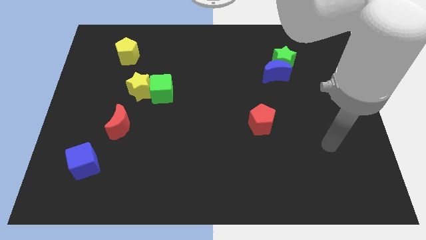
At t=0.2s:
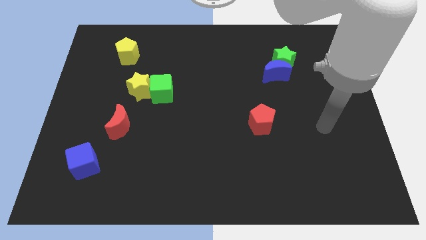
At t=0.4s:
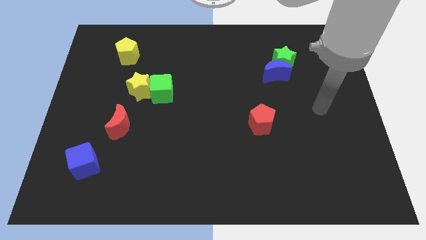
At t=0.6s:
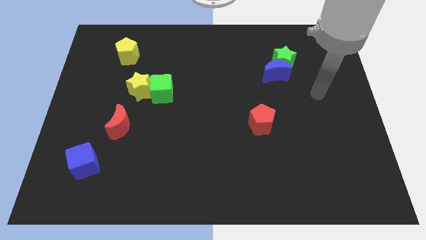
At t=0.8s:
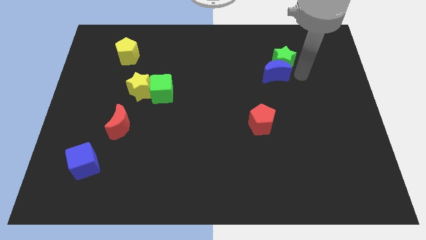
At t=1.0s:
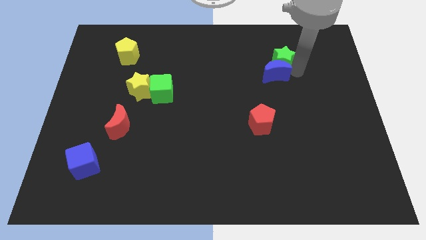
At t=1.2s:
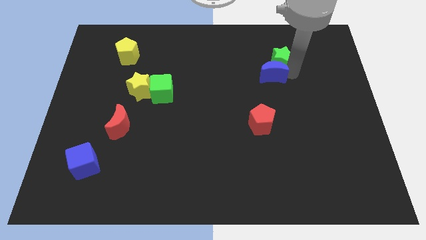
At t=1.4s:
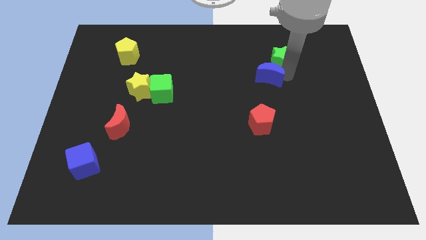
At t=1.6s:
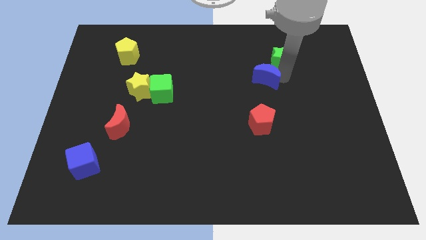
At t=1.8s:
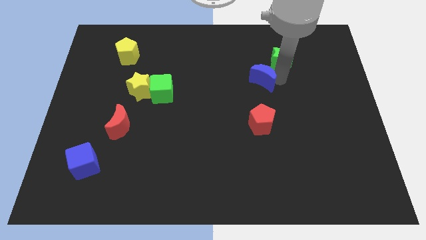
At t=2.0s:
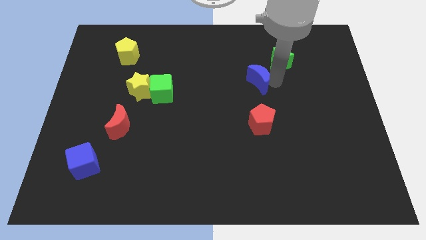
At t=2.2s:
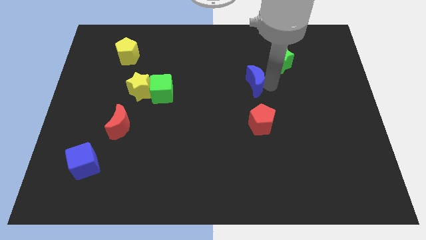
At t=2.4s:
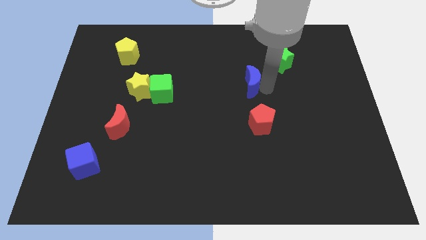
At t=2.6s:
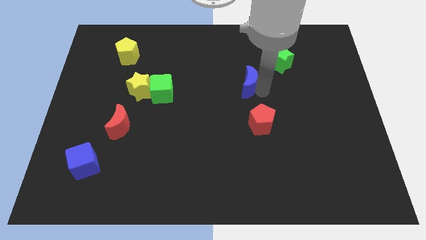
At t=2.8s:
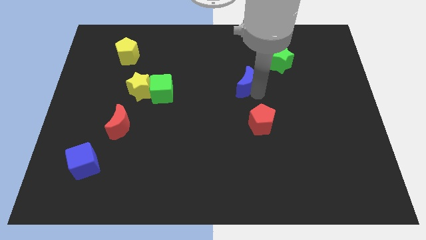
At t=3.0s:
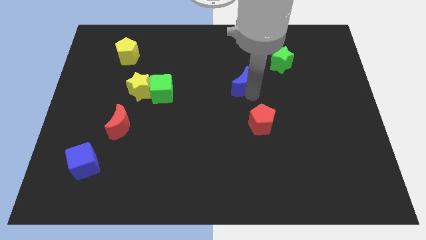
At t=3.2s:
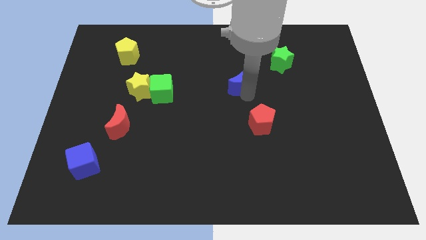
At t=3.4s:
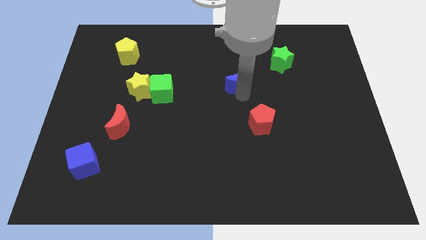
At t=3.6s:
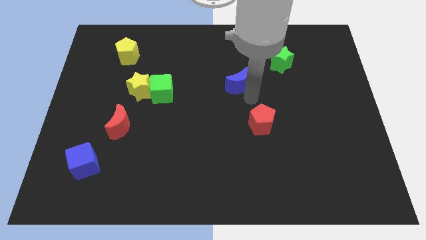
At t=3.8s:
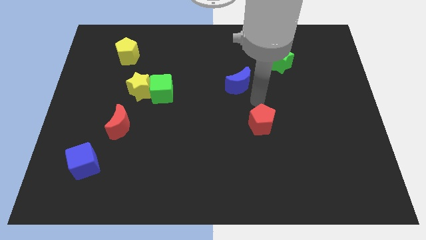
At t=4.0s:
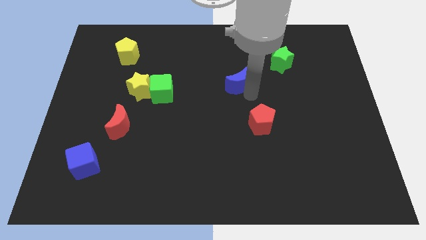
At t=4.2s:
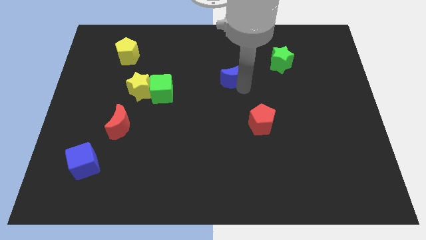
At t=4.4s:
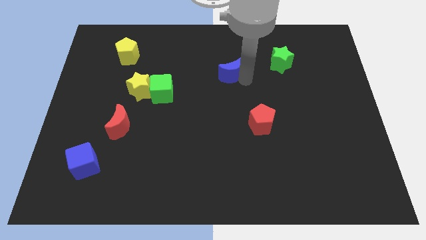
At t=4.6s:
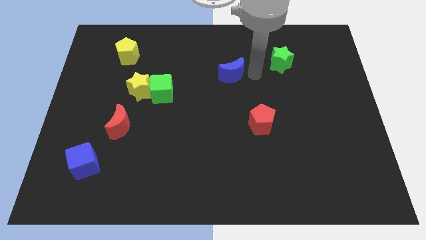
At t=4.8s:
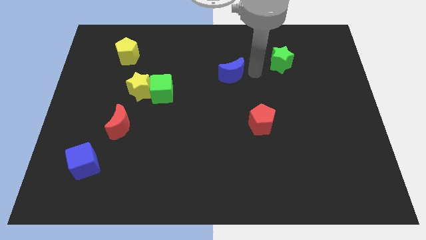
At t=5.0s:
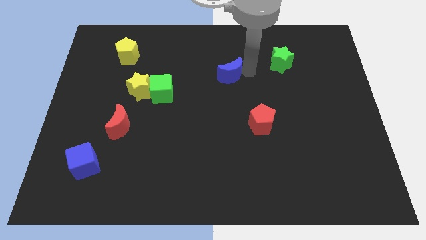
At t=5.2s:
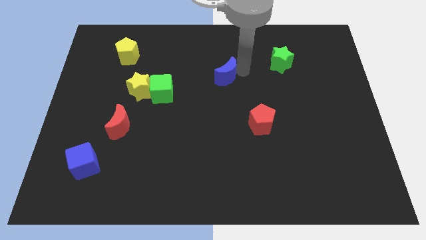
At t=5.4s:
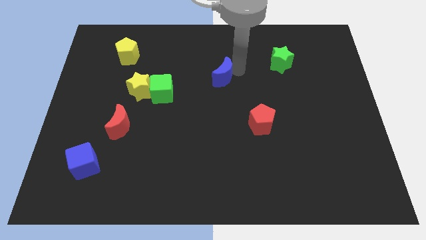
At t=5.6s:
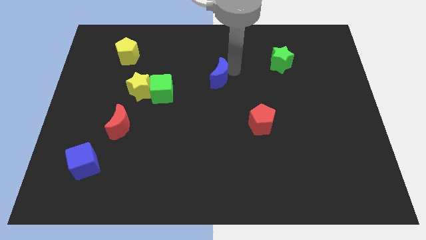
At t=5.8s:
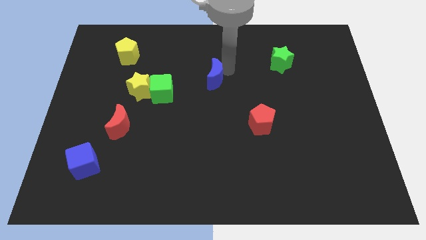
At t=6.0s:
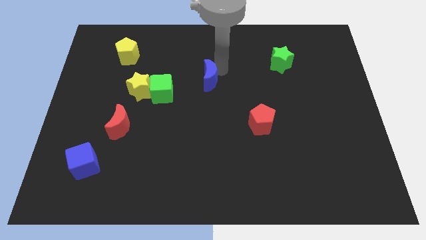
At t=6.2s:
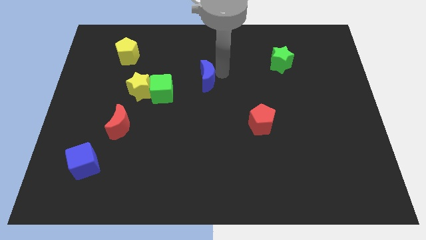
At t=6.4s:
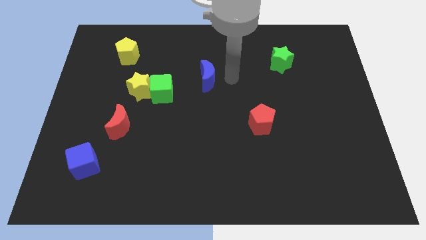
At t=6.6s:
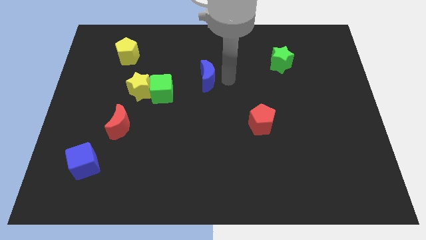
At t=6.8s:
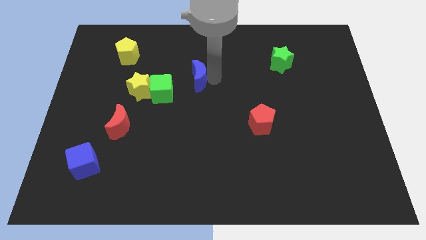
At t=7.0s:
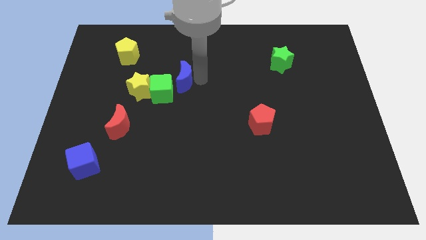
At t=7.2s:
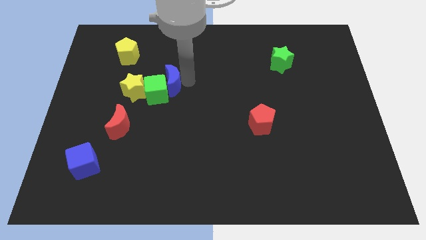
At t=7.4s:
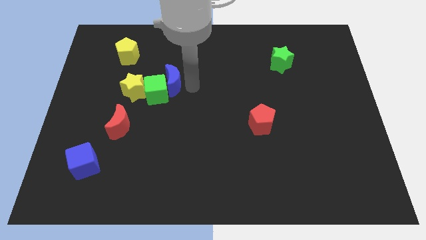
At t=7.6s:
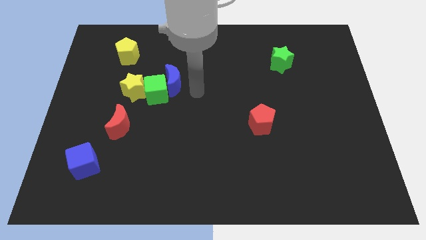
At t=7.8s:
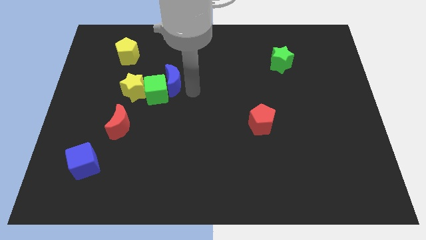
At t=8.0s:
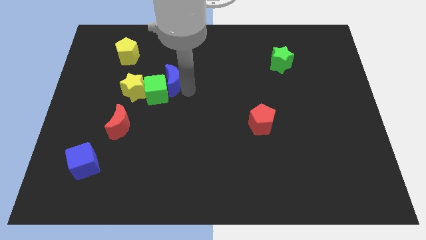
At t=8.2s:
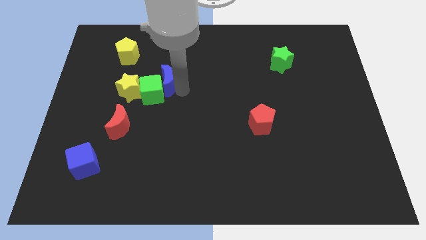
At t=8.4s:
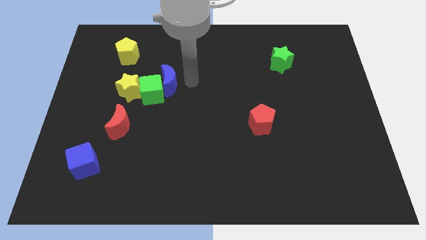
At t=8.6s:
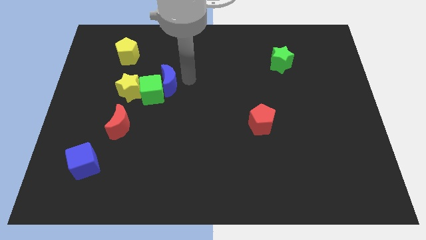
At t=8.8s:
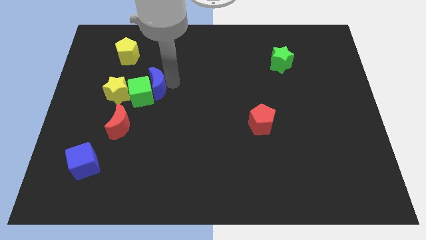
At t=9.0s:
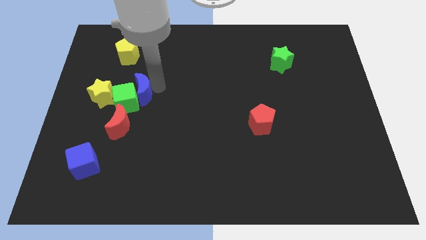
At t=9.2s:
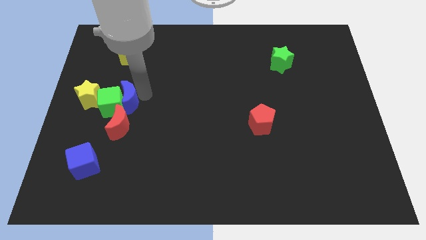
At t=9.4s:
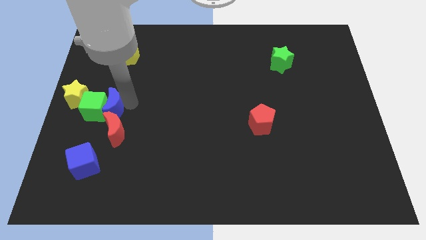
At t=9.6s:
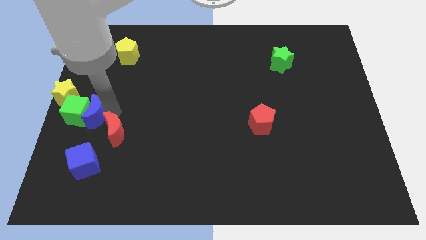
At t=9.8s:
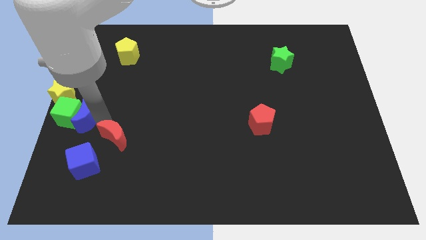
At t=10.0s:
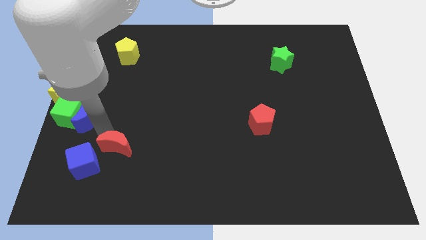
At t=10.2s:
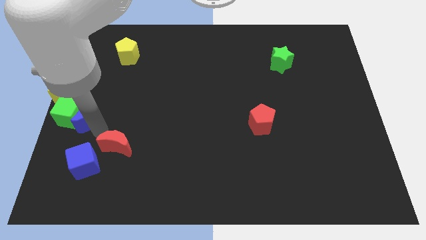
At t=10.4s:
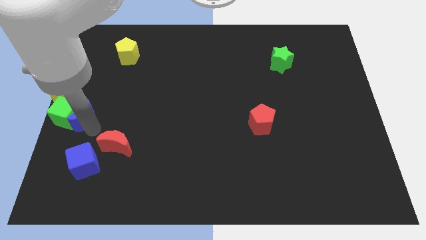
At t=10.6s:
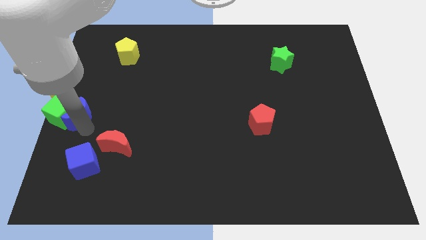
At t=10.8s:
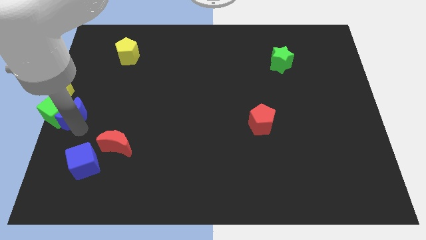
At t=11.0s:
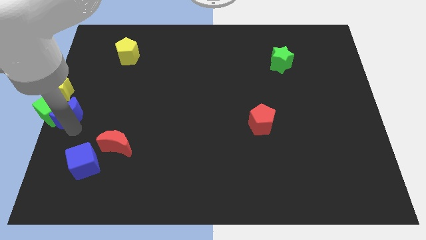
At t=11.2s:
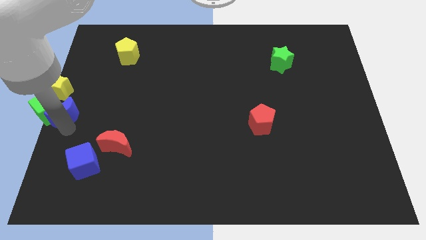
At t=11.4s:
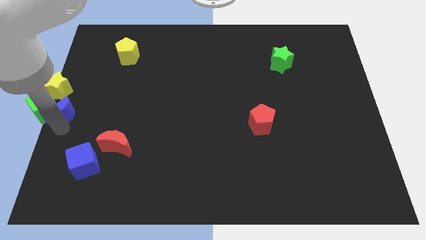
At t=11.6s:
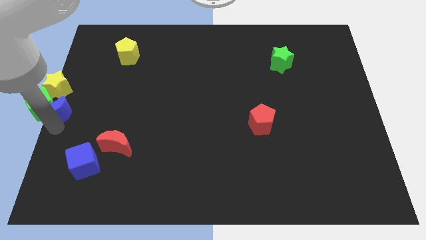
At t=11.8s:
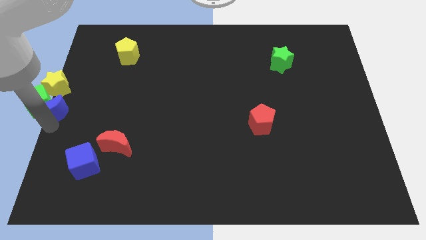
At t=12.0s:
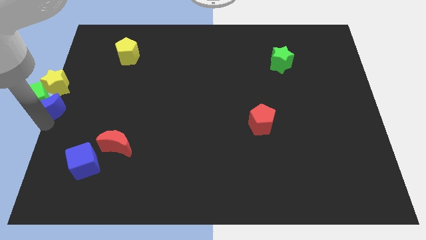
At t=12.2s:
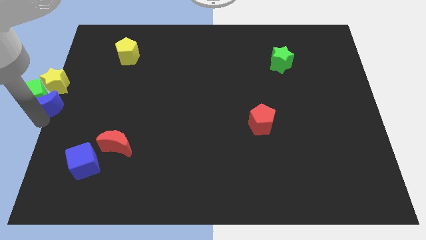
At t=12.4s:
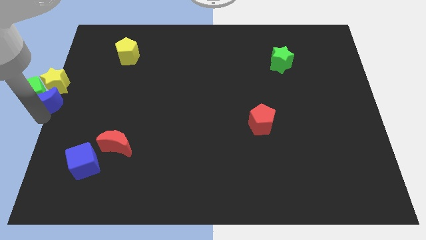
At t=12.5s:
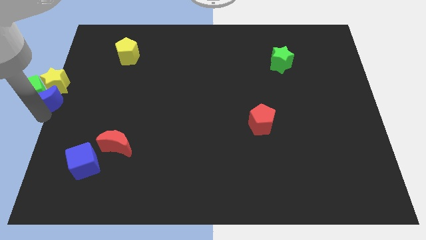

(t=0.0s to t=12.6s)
slide the blue moon close to the yellow star
